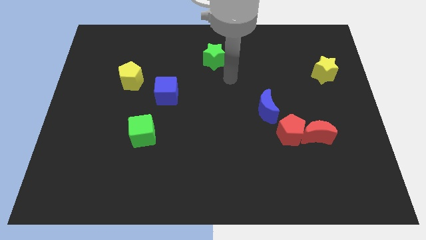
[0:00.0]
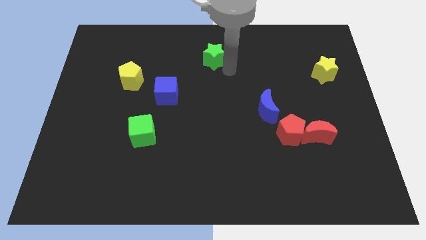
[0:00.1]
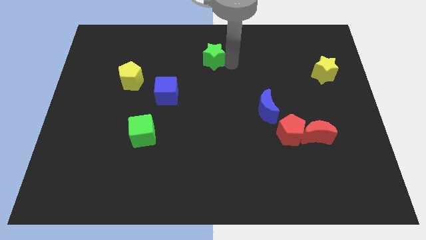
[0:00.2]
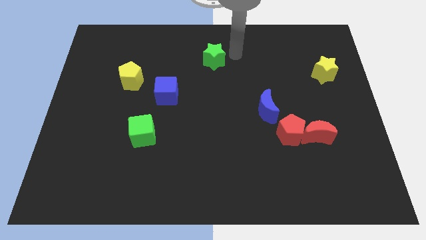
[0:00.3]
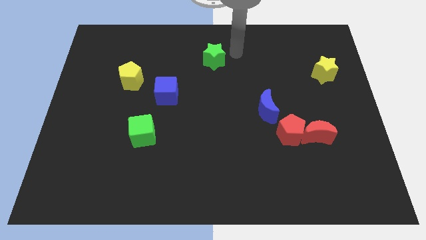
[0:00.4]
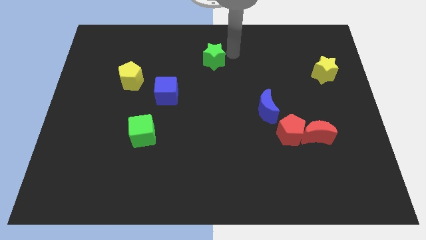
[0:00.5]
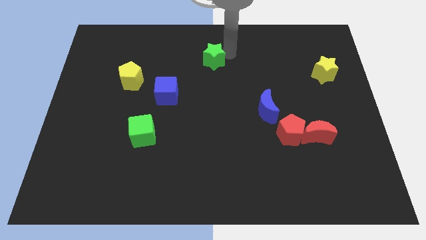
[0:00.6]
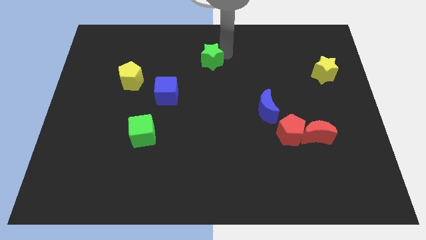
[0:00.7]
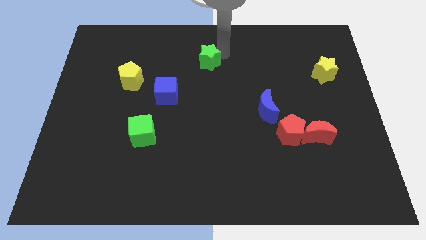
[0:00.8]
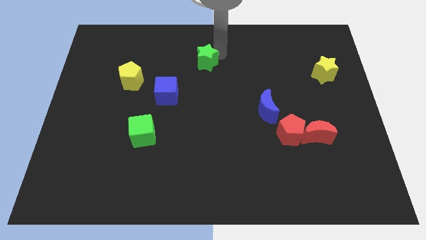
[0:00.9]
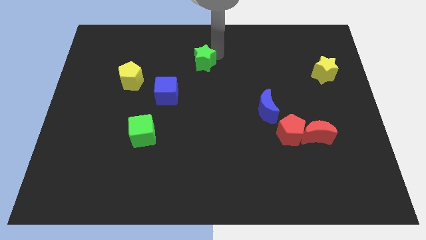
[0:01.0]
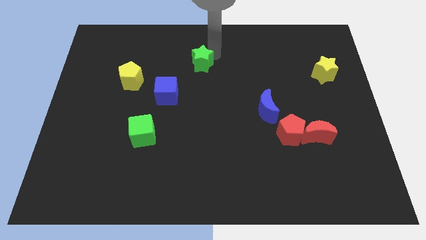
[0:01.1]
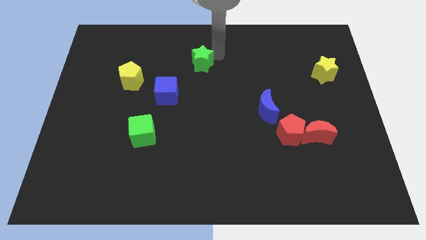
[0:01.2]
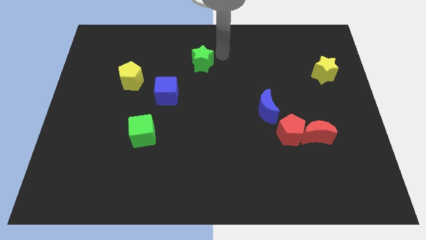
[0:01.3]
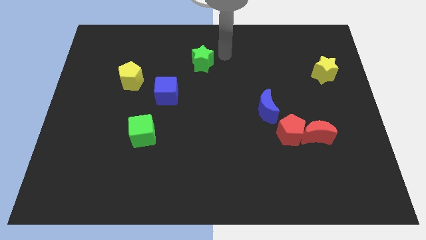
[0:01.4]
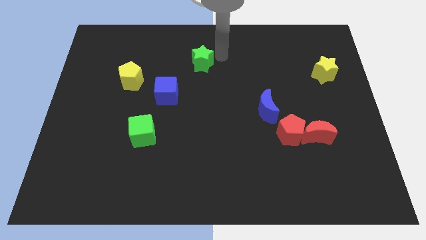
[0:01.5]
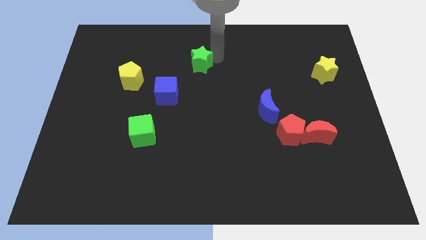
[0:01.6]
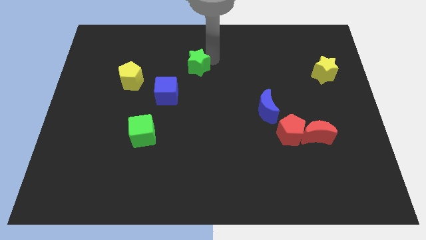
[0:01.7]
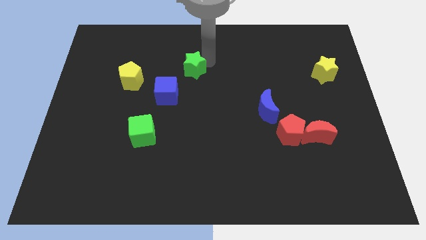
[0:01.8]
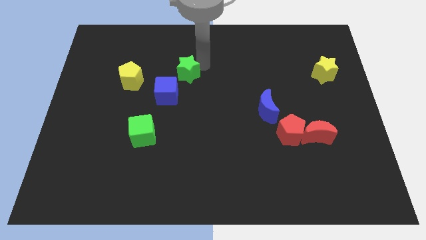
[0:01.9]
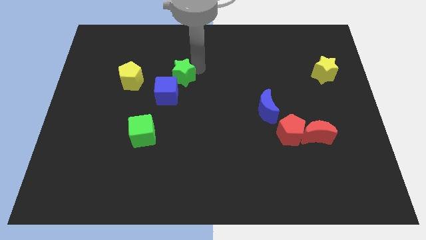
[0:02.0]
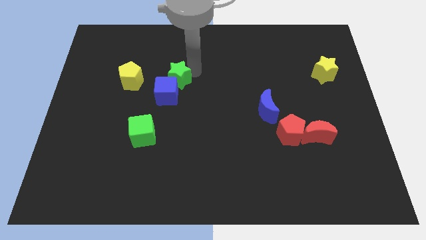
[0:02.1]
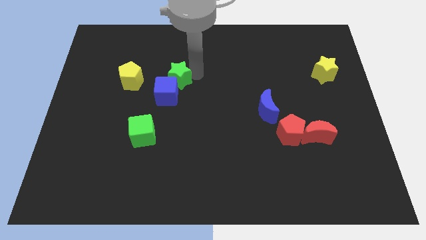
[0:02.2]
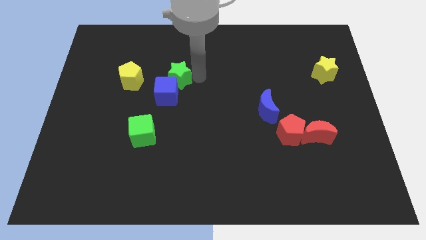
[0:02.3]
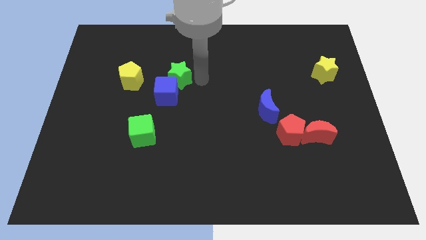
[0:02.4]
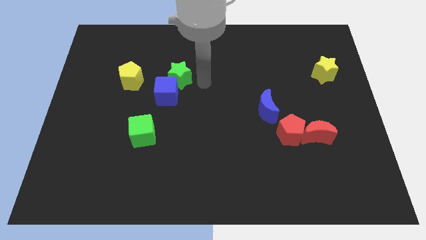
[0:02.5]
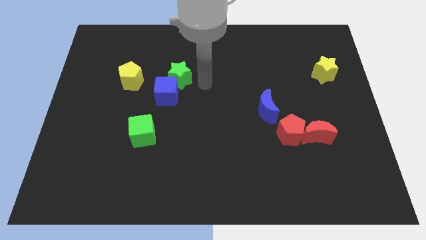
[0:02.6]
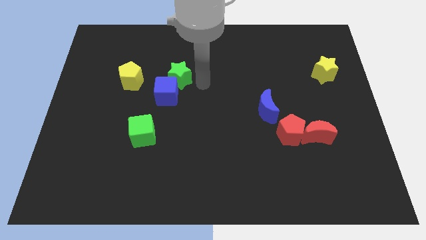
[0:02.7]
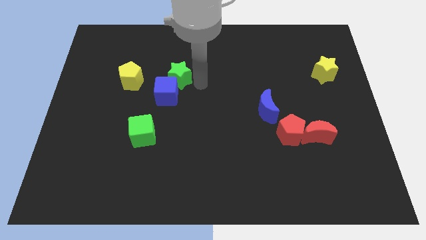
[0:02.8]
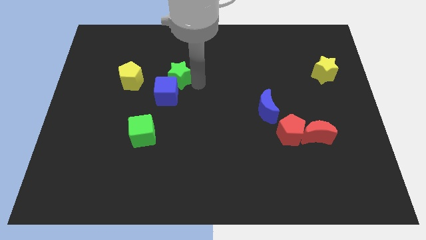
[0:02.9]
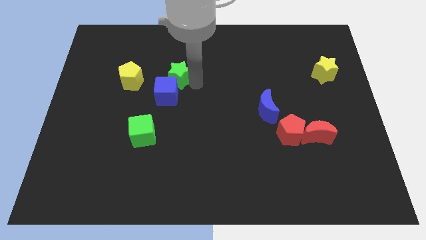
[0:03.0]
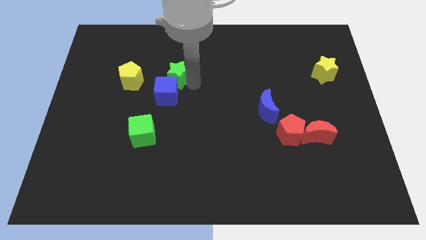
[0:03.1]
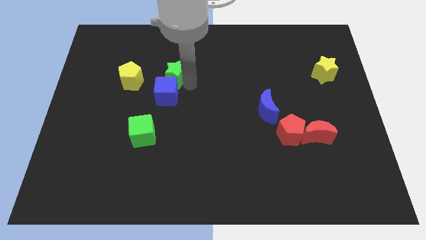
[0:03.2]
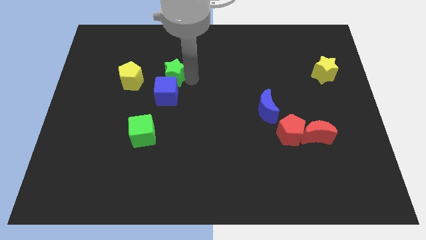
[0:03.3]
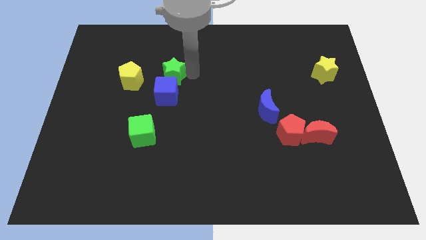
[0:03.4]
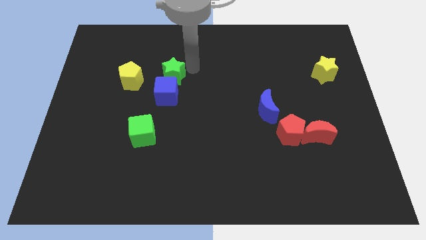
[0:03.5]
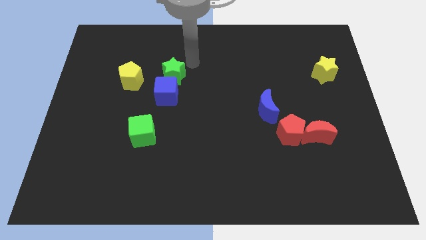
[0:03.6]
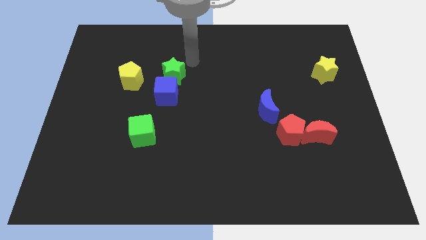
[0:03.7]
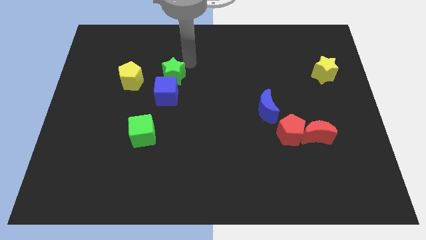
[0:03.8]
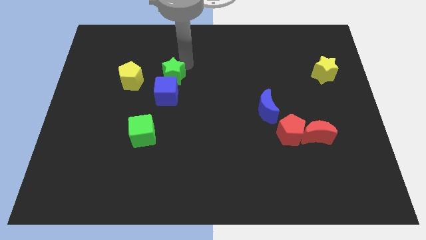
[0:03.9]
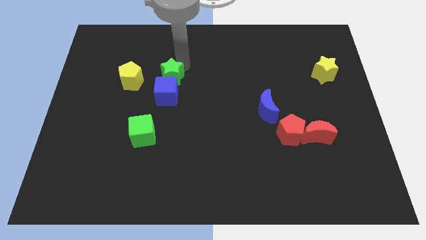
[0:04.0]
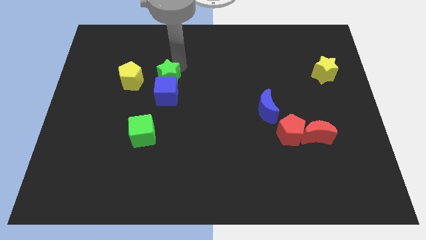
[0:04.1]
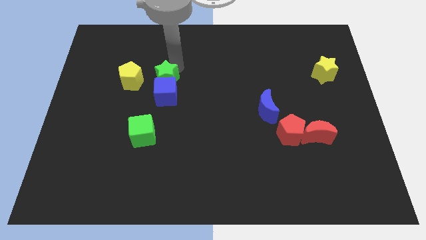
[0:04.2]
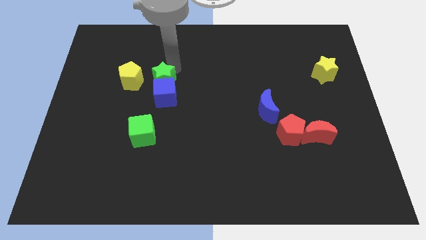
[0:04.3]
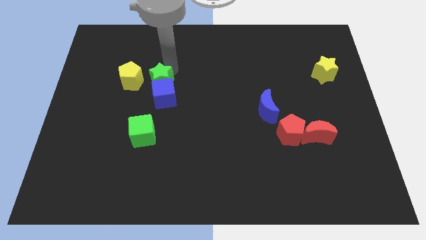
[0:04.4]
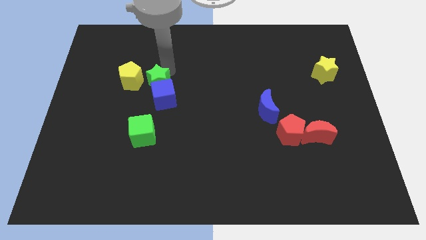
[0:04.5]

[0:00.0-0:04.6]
move the green star to the bottom right of the yellow pentagon

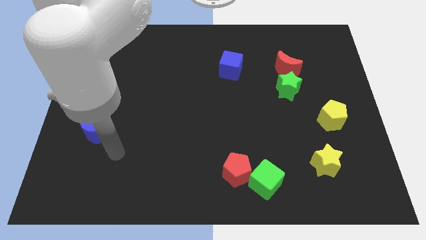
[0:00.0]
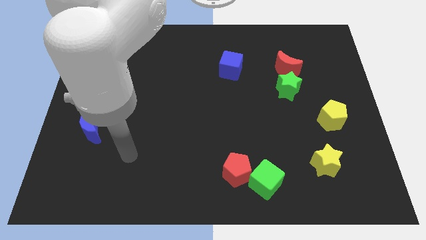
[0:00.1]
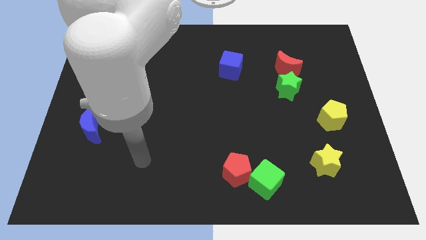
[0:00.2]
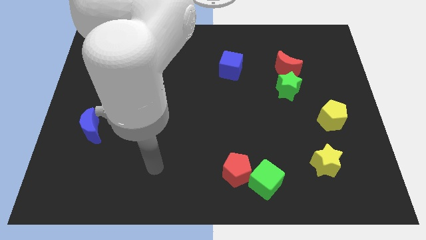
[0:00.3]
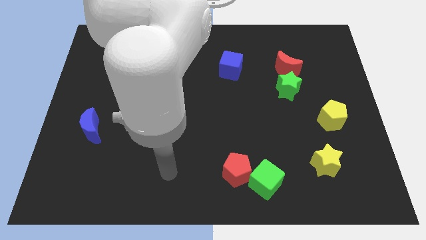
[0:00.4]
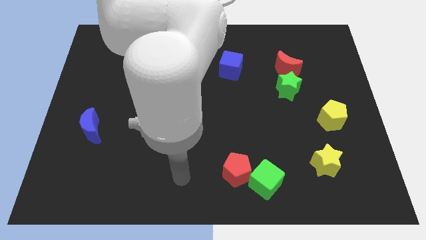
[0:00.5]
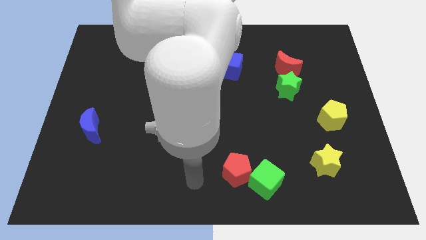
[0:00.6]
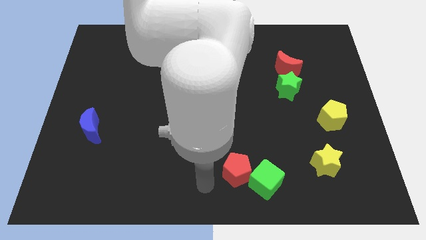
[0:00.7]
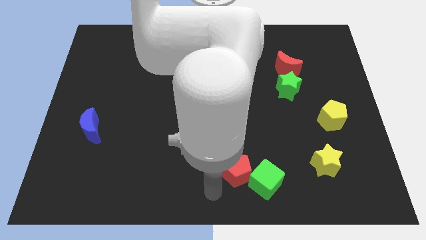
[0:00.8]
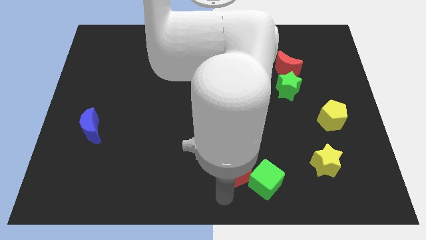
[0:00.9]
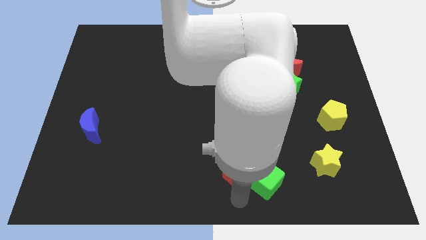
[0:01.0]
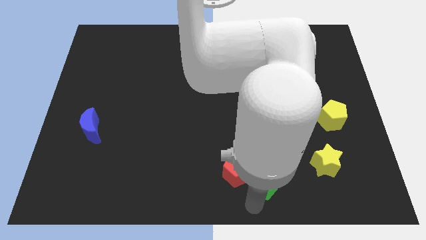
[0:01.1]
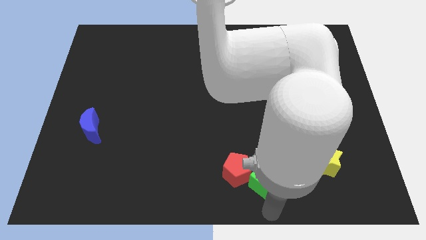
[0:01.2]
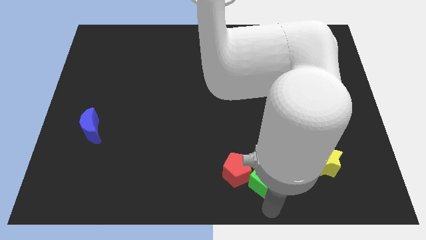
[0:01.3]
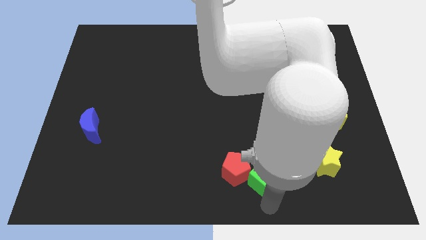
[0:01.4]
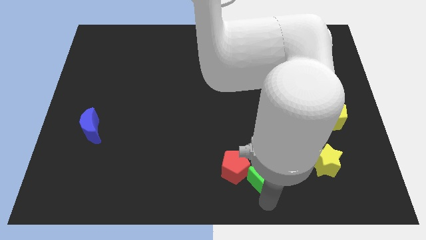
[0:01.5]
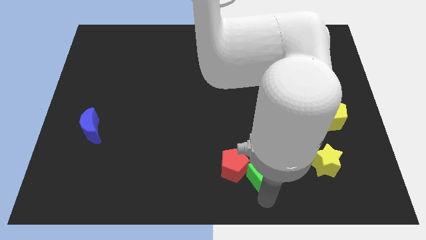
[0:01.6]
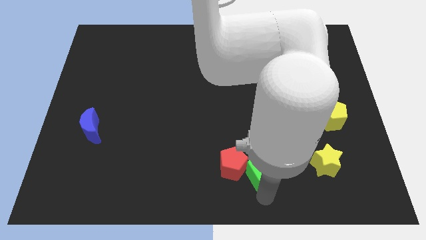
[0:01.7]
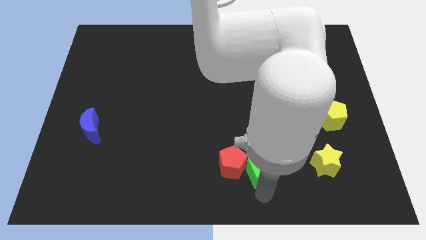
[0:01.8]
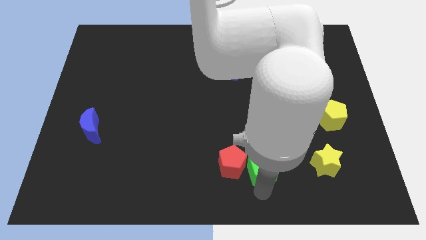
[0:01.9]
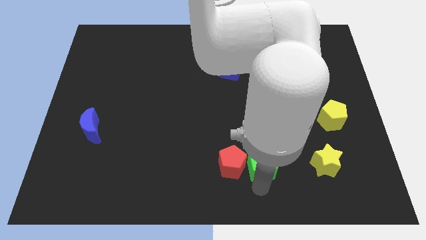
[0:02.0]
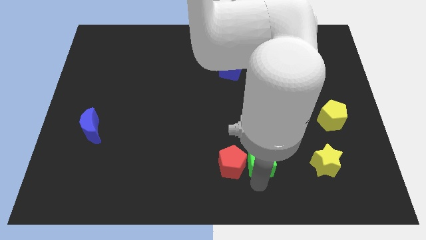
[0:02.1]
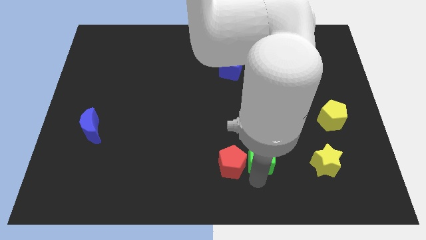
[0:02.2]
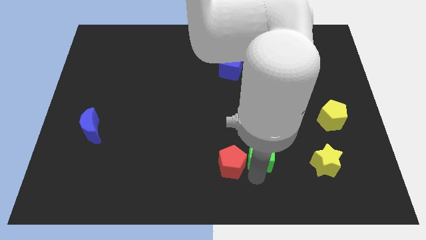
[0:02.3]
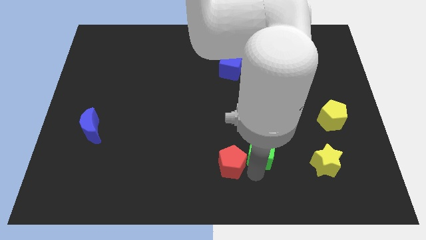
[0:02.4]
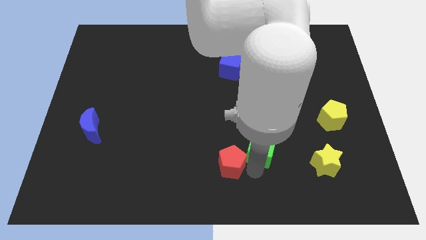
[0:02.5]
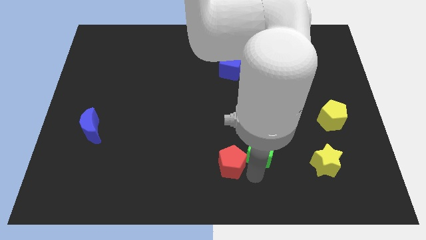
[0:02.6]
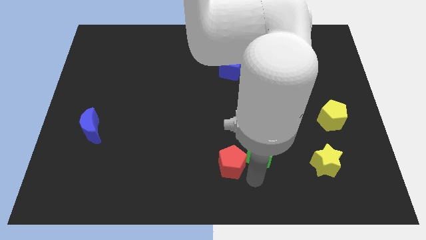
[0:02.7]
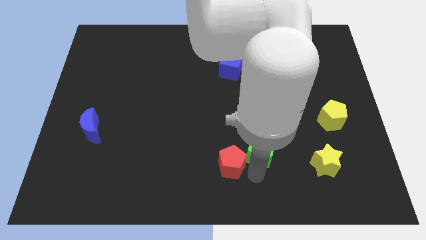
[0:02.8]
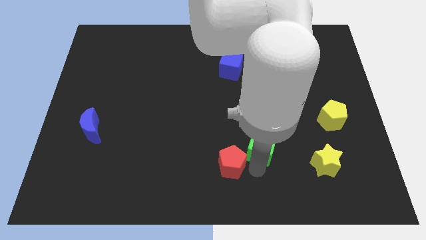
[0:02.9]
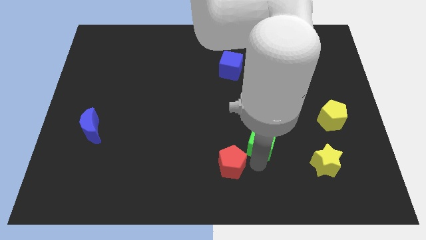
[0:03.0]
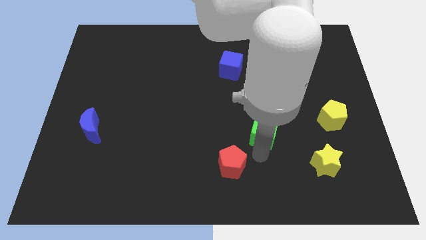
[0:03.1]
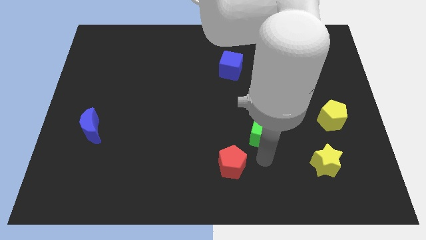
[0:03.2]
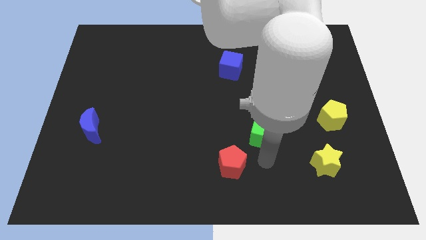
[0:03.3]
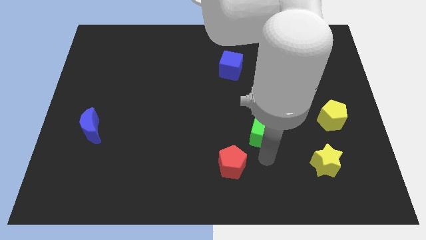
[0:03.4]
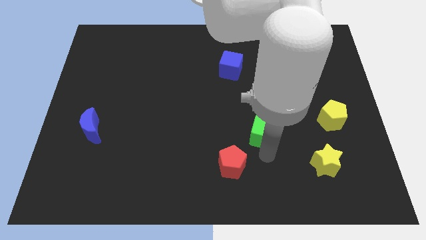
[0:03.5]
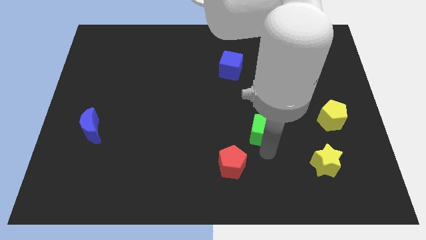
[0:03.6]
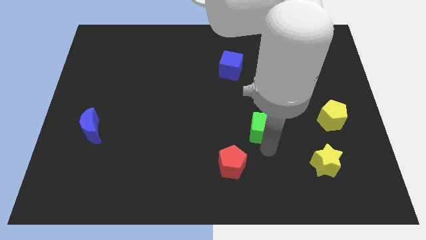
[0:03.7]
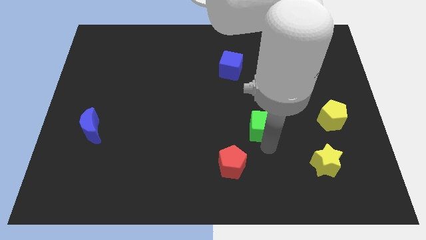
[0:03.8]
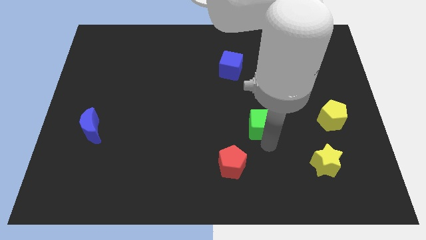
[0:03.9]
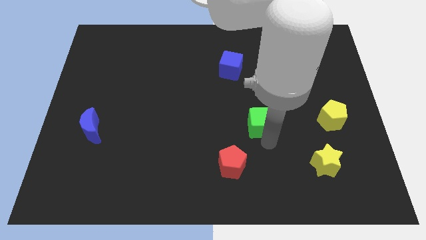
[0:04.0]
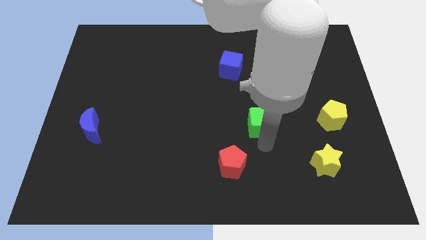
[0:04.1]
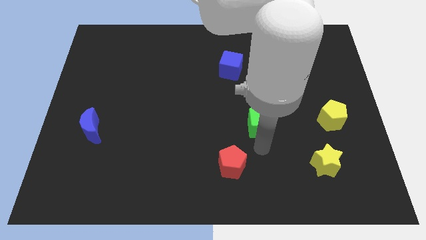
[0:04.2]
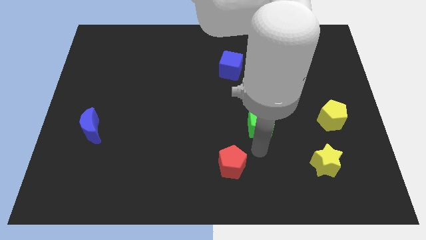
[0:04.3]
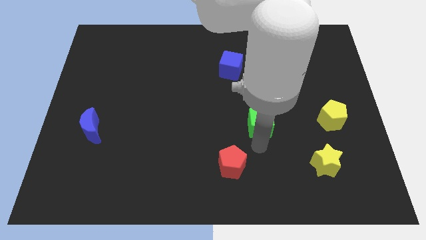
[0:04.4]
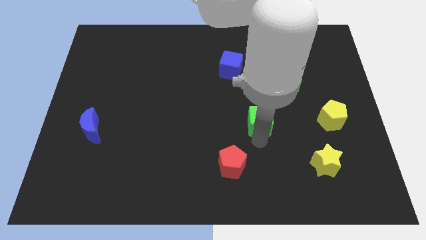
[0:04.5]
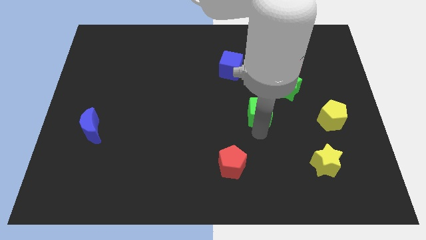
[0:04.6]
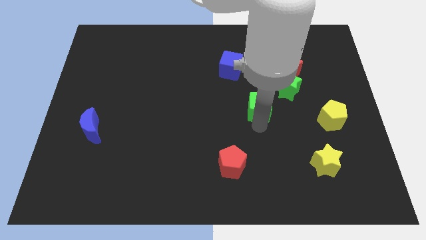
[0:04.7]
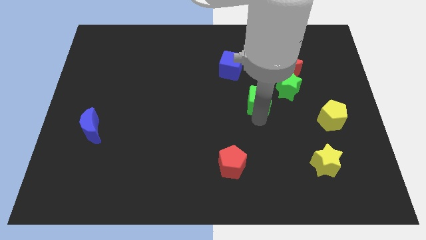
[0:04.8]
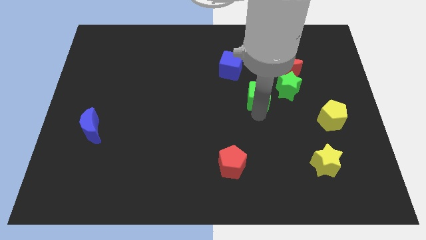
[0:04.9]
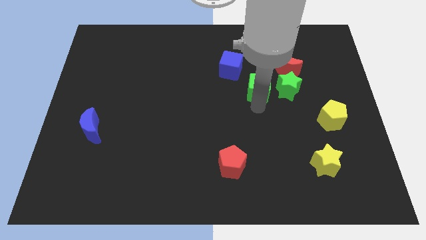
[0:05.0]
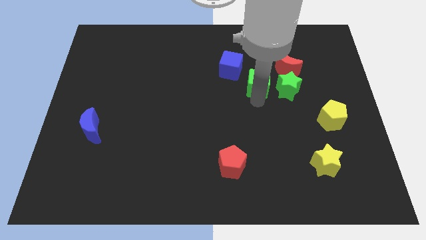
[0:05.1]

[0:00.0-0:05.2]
put the green cube to the top left side of the green star
